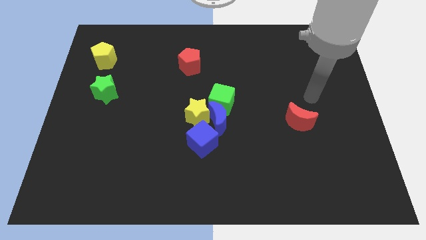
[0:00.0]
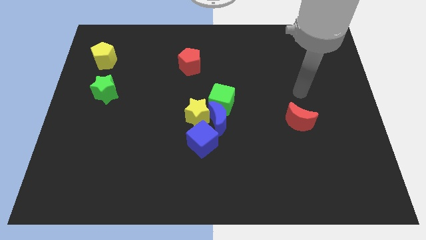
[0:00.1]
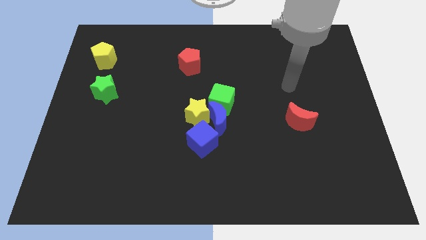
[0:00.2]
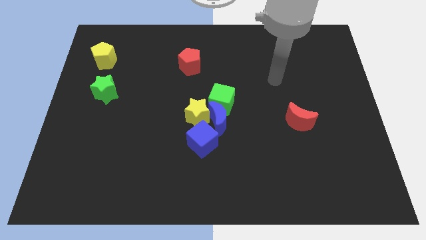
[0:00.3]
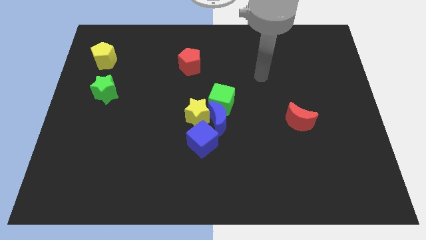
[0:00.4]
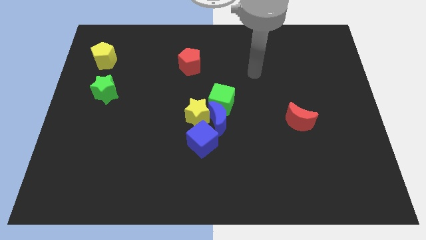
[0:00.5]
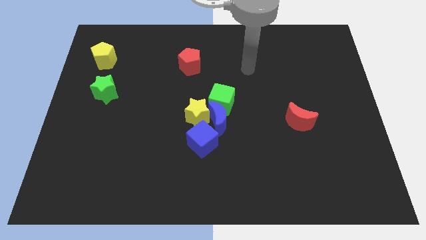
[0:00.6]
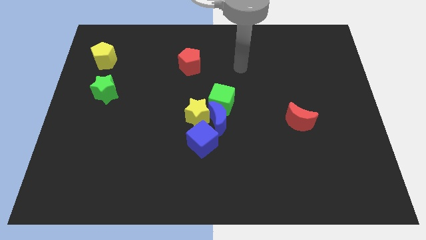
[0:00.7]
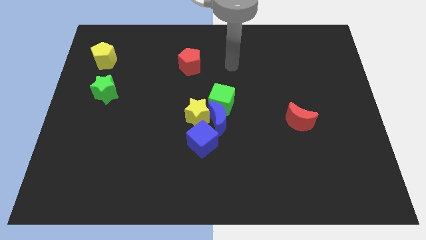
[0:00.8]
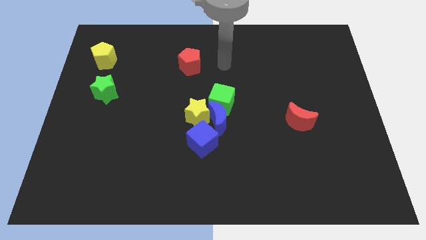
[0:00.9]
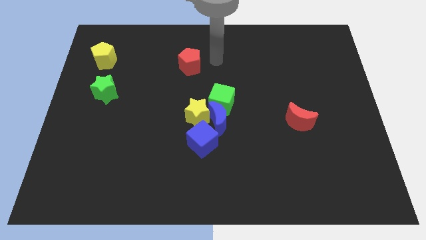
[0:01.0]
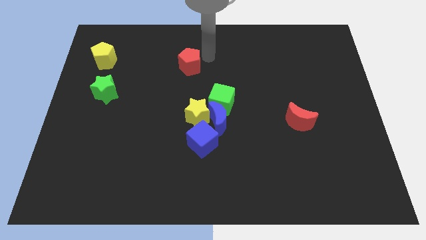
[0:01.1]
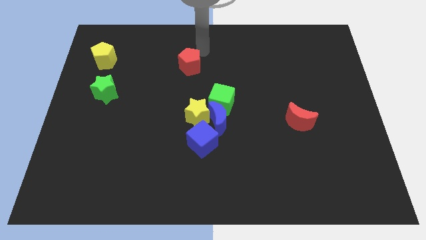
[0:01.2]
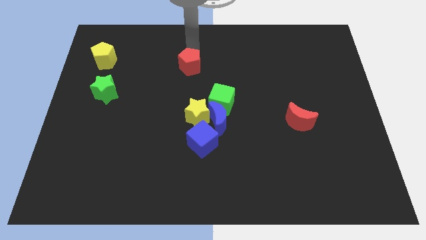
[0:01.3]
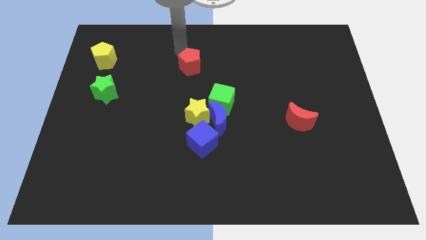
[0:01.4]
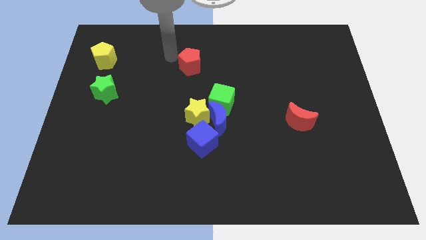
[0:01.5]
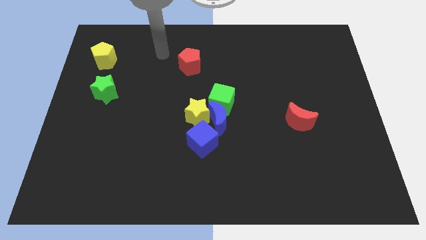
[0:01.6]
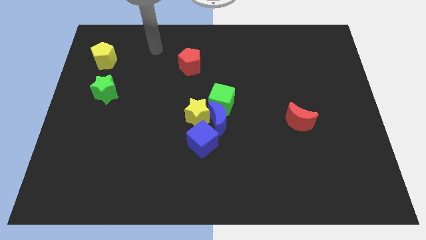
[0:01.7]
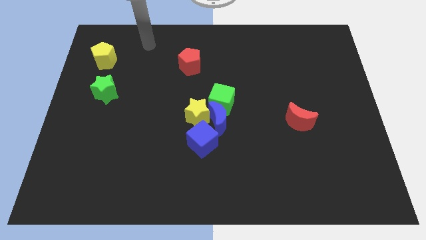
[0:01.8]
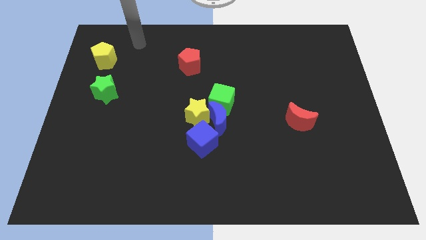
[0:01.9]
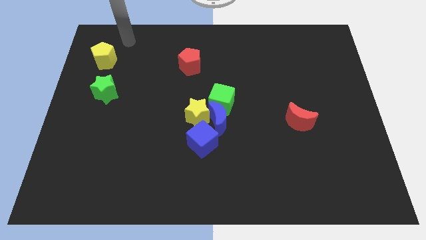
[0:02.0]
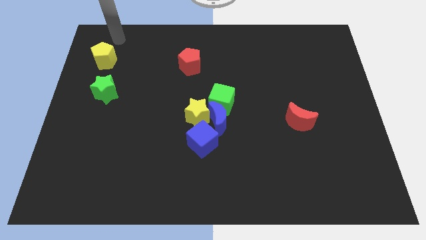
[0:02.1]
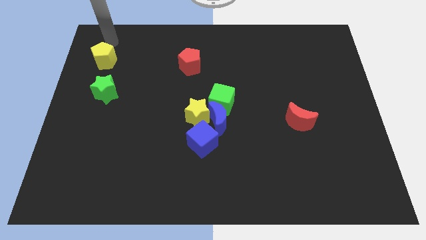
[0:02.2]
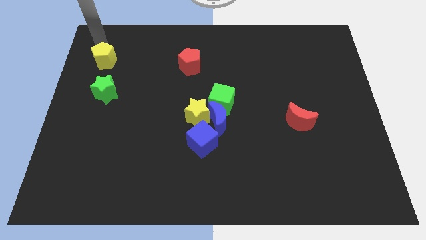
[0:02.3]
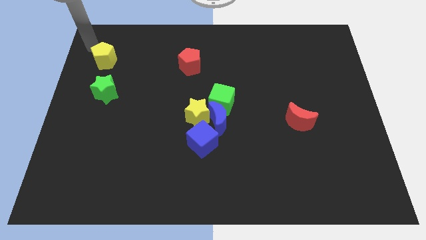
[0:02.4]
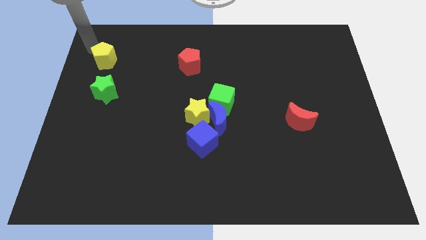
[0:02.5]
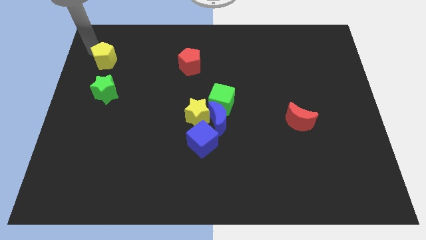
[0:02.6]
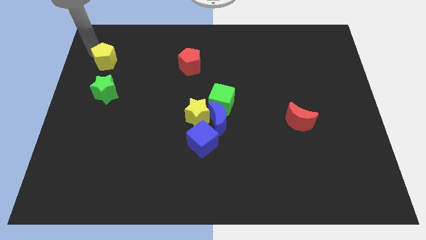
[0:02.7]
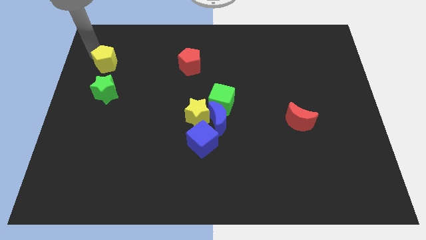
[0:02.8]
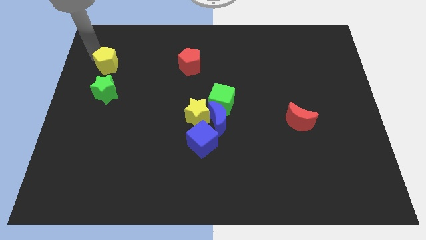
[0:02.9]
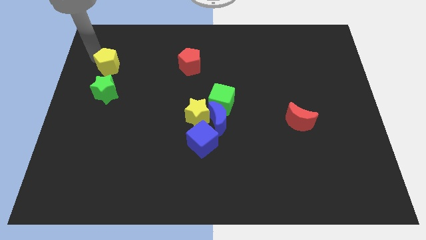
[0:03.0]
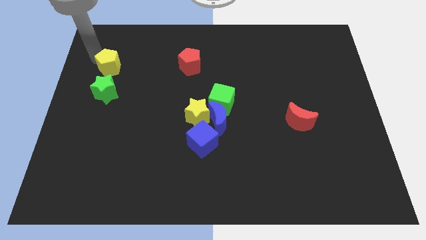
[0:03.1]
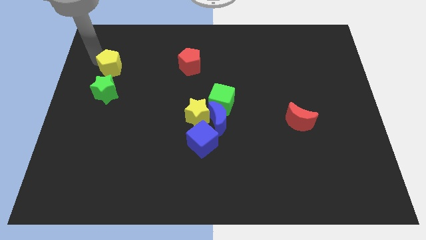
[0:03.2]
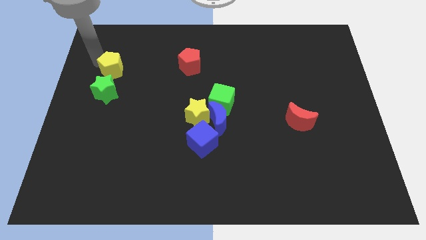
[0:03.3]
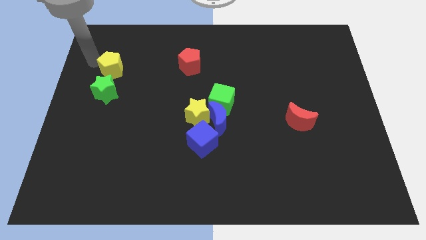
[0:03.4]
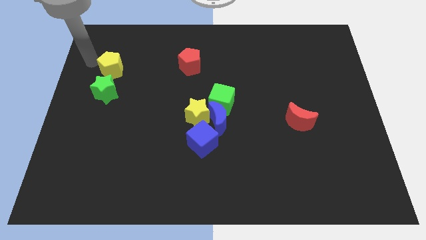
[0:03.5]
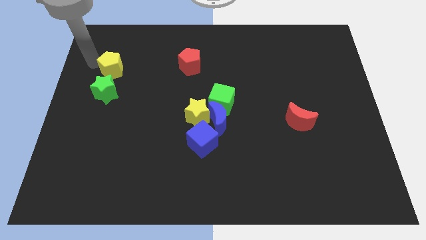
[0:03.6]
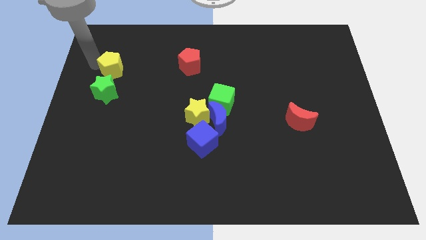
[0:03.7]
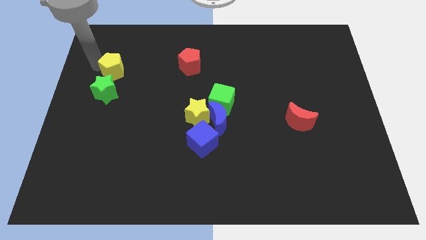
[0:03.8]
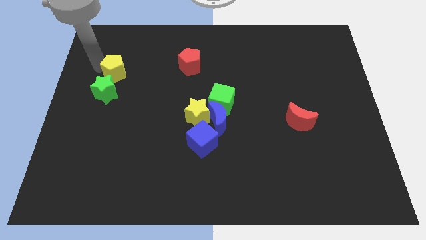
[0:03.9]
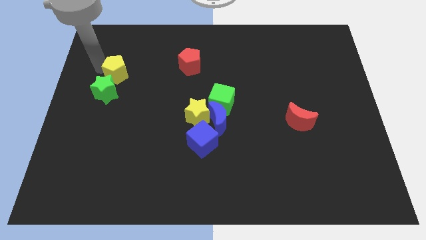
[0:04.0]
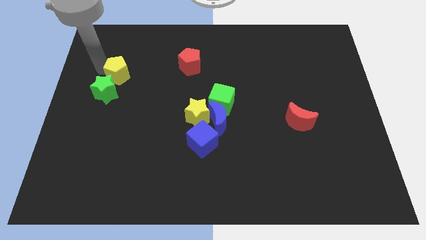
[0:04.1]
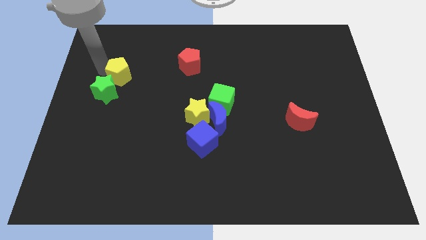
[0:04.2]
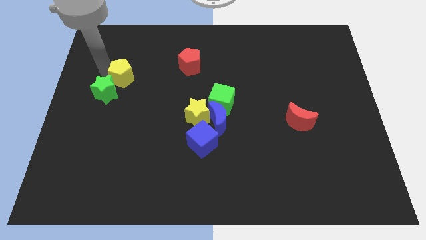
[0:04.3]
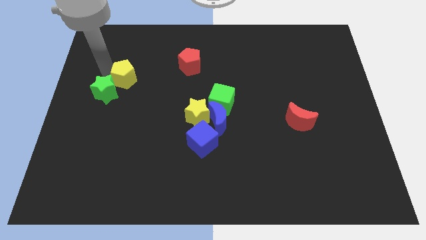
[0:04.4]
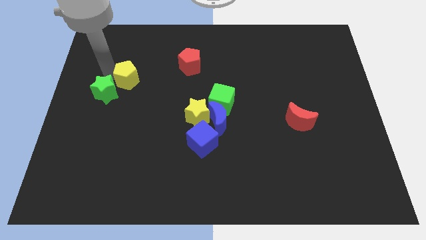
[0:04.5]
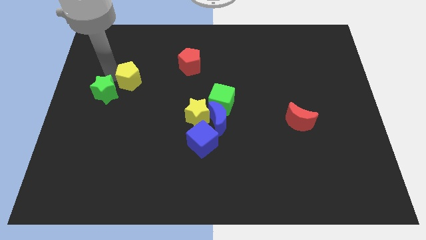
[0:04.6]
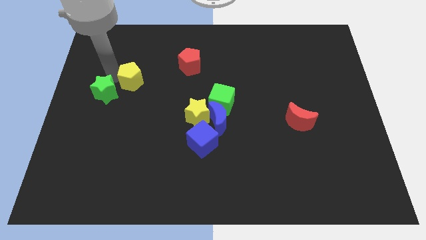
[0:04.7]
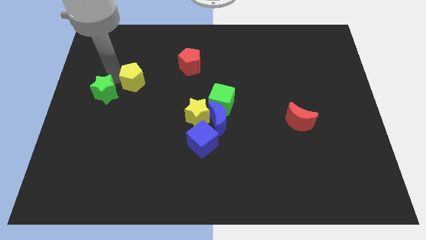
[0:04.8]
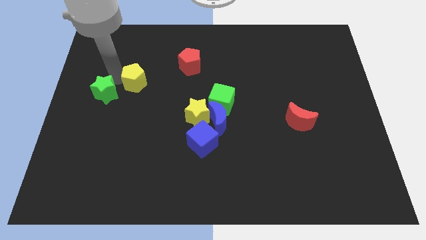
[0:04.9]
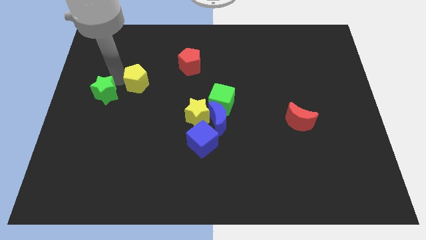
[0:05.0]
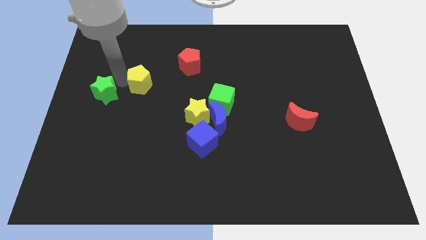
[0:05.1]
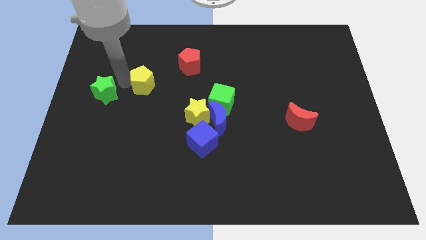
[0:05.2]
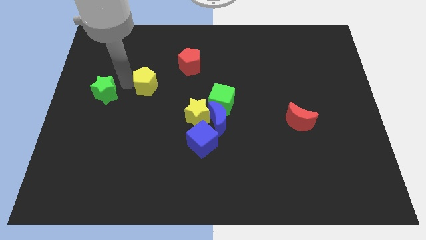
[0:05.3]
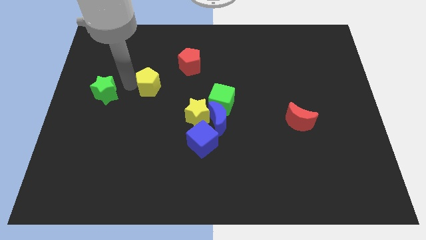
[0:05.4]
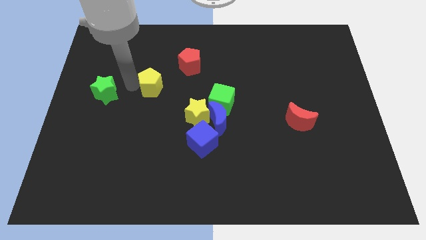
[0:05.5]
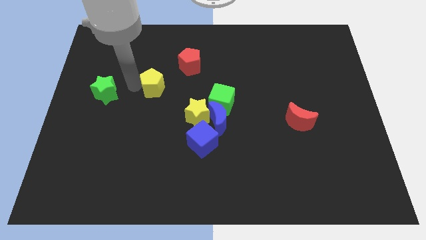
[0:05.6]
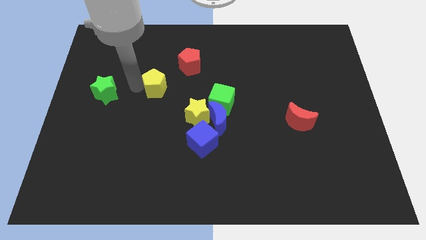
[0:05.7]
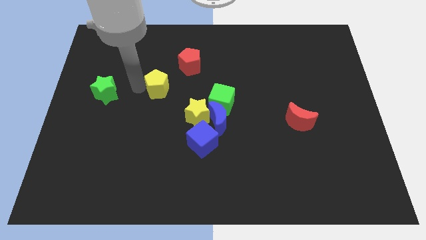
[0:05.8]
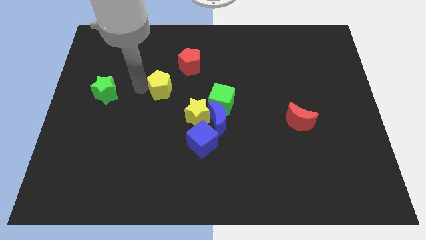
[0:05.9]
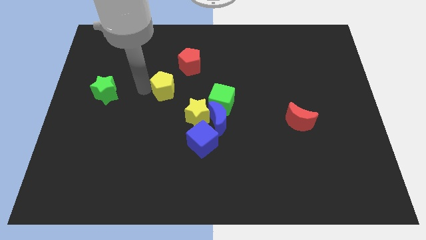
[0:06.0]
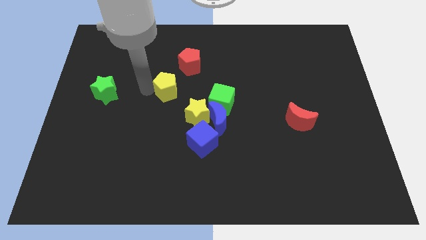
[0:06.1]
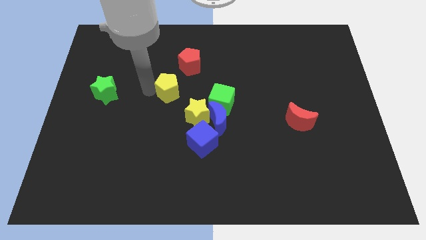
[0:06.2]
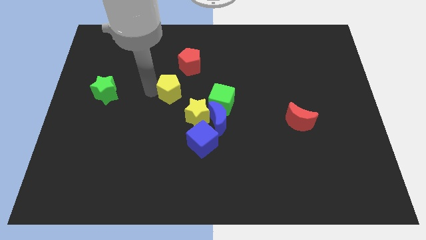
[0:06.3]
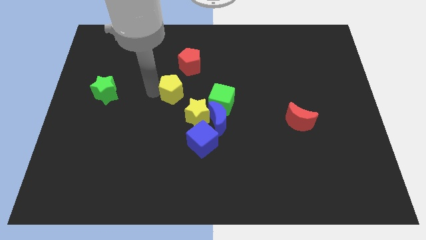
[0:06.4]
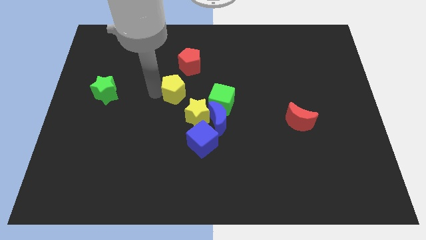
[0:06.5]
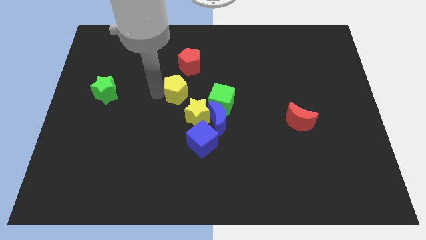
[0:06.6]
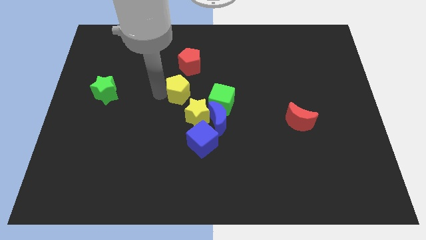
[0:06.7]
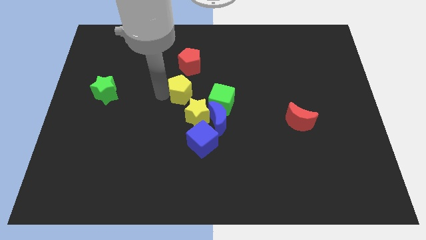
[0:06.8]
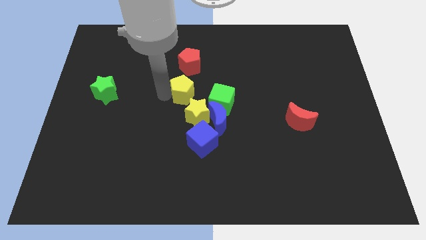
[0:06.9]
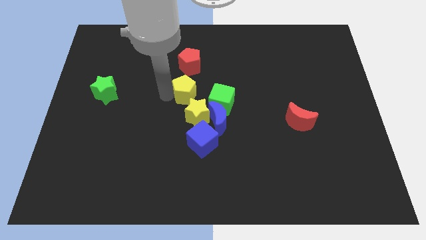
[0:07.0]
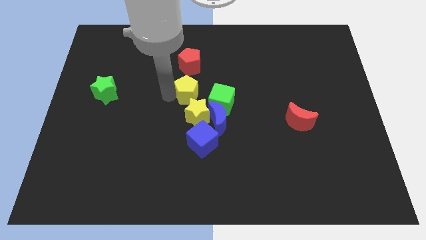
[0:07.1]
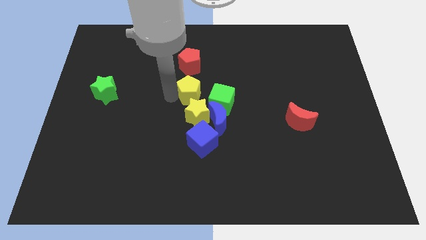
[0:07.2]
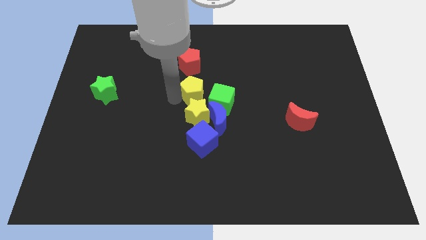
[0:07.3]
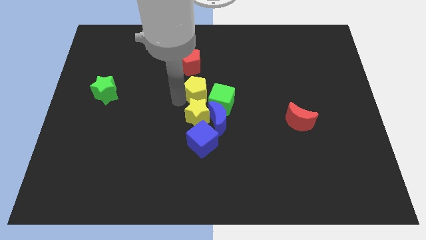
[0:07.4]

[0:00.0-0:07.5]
move the yellow pentagon to the top right side of the yellow star
